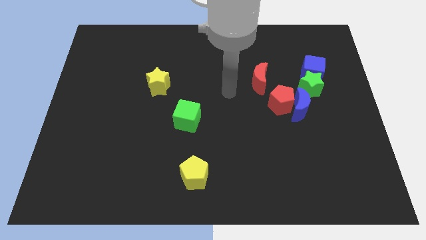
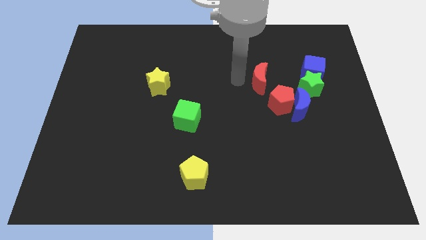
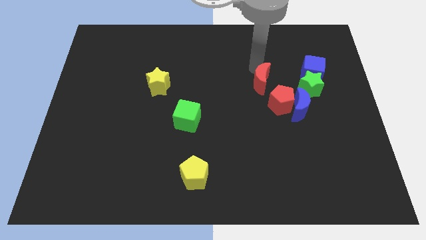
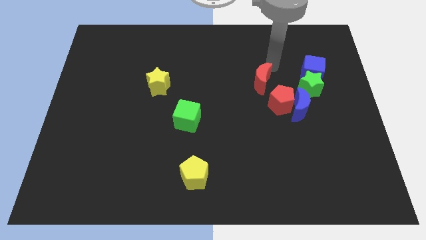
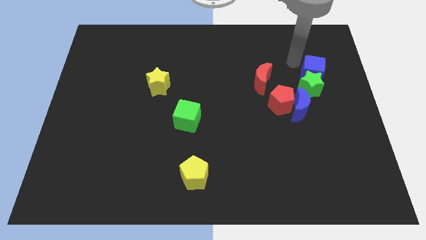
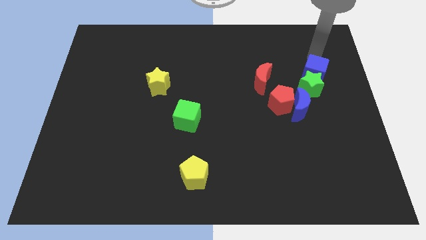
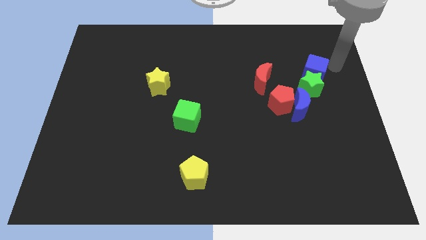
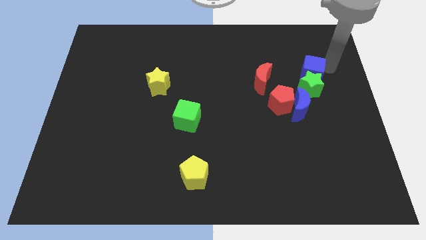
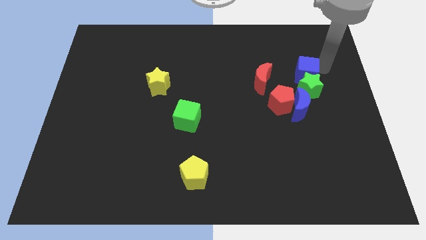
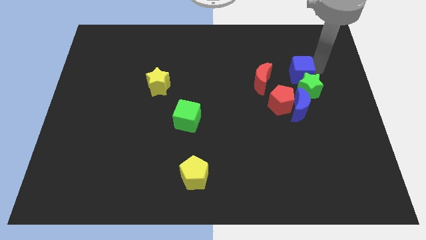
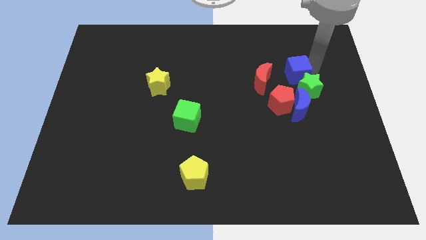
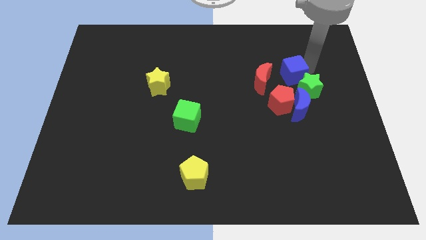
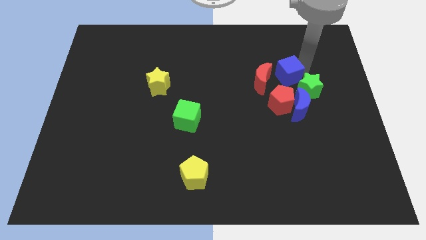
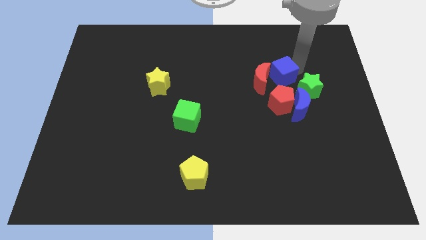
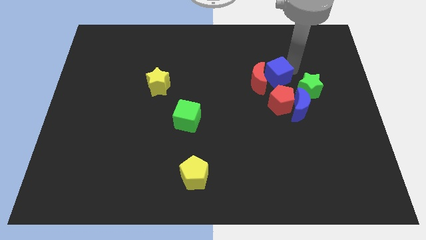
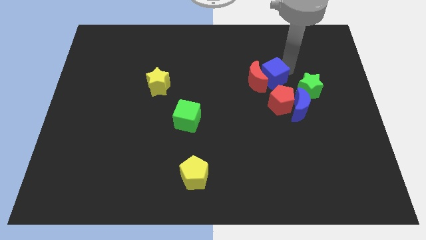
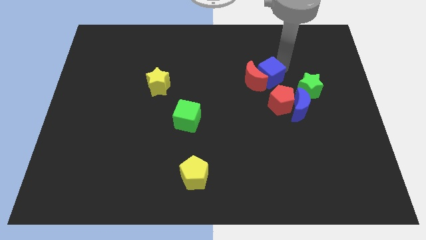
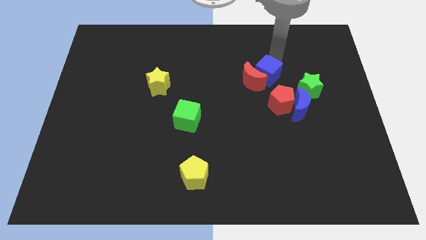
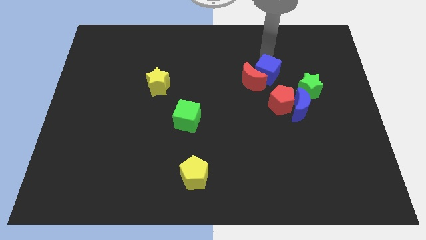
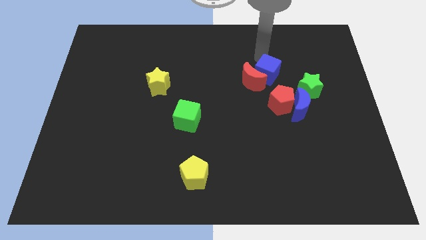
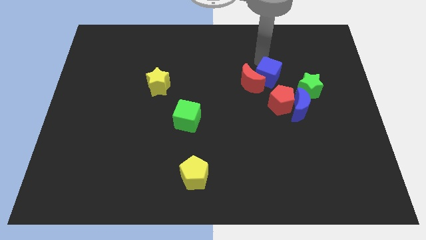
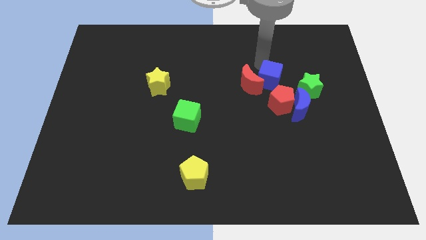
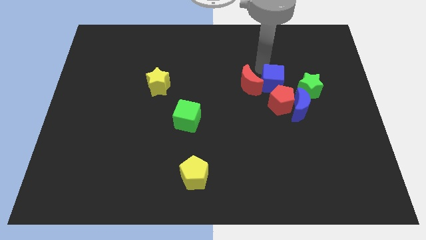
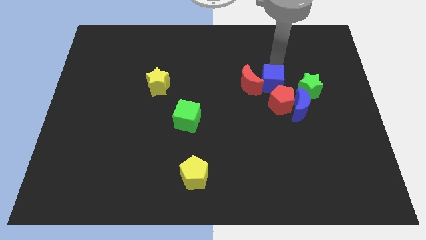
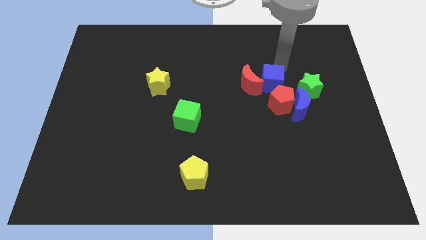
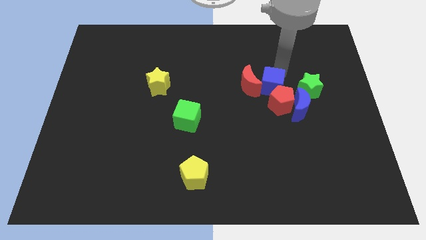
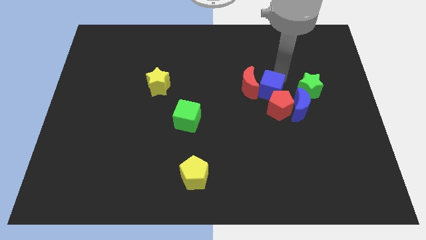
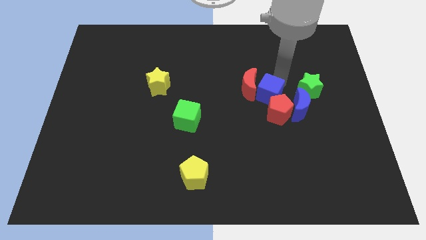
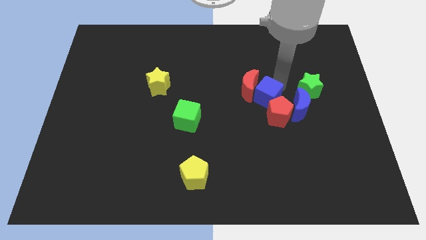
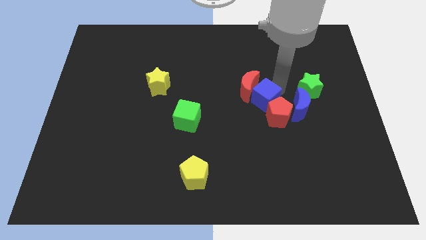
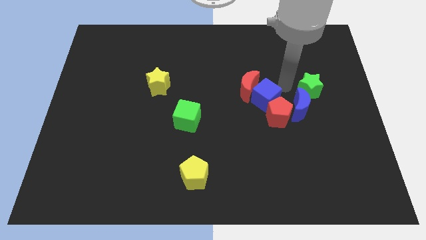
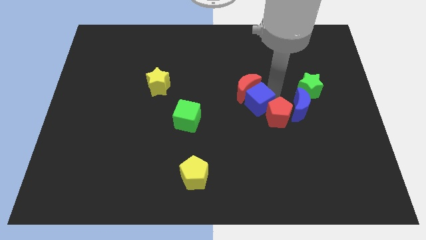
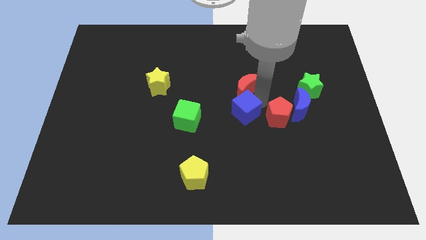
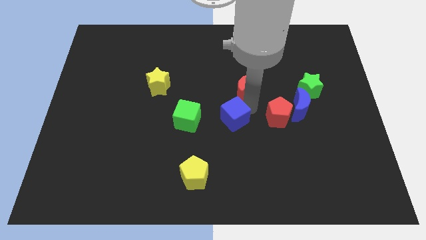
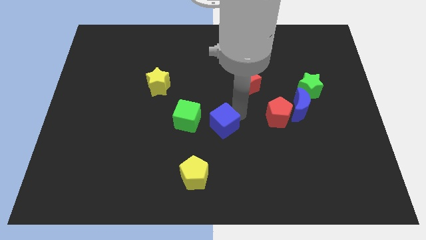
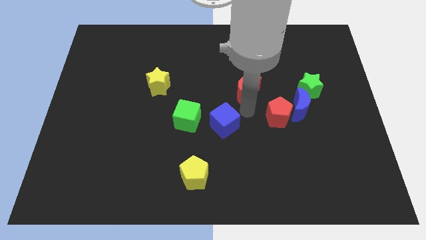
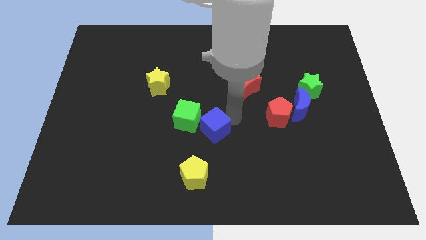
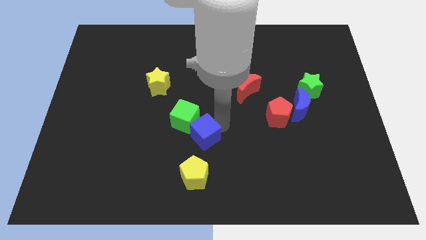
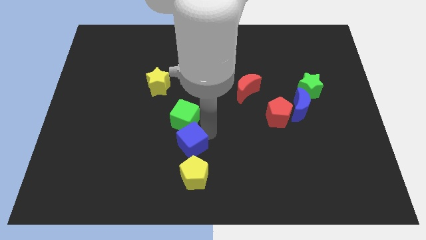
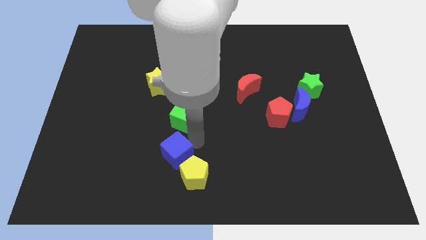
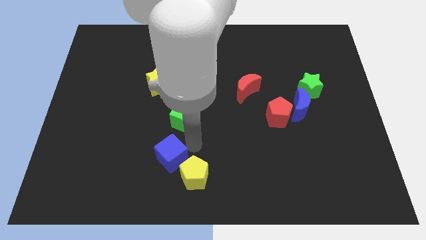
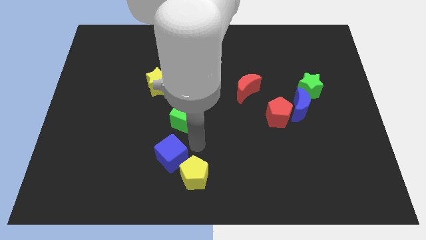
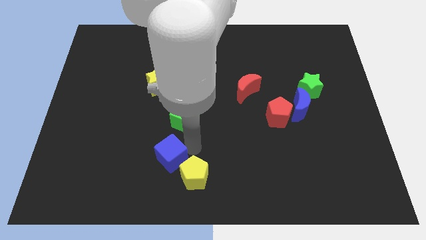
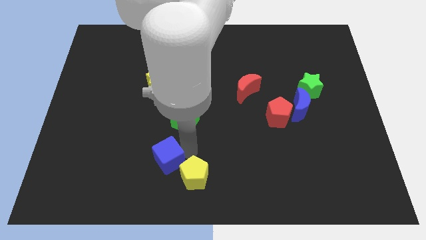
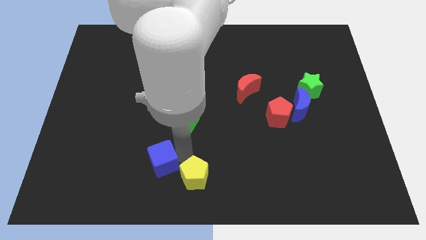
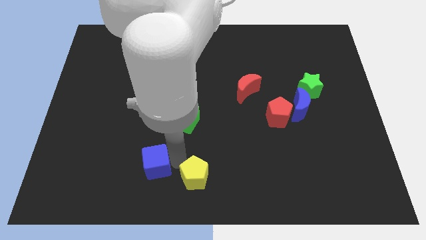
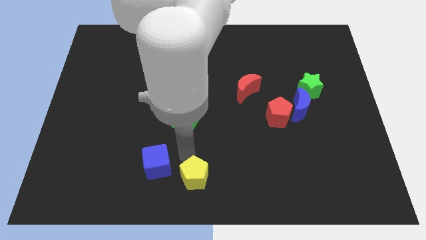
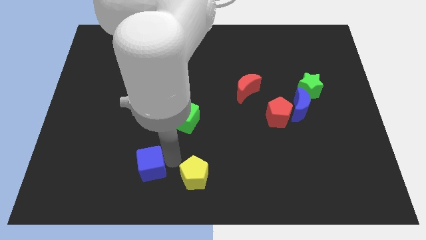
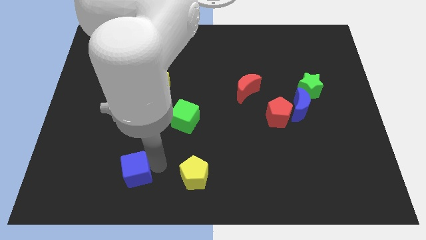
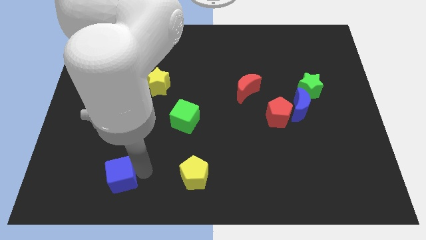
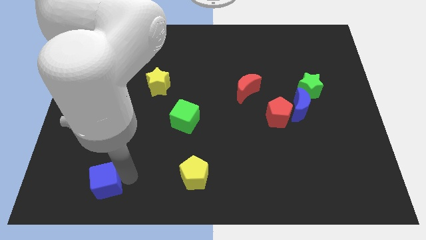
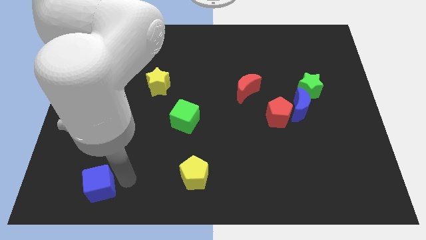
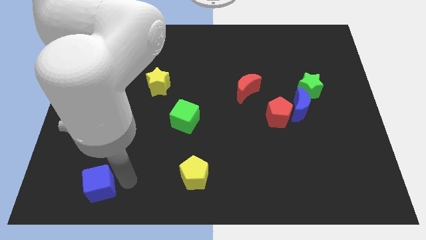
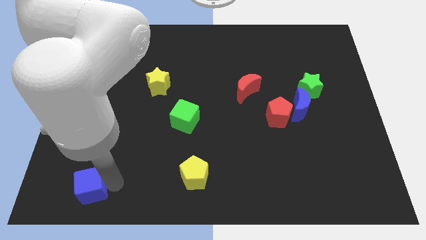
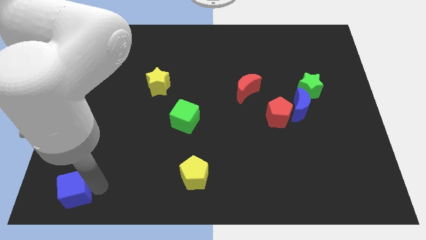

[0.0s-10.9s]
move the blue cube to the lower left corner

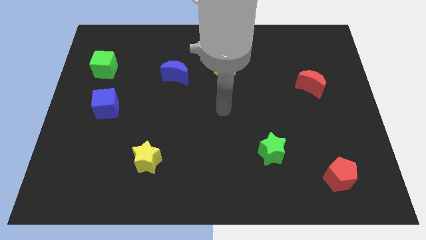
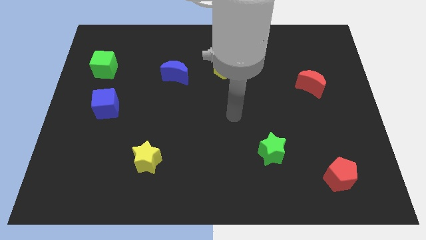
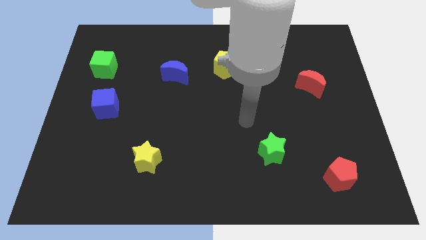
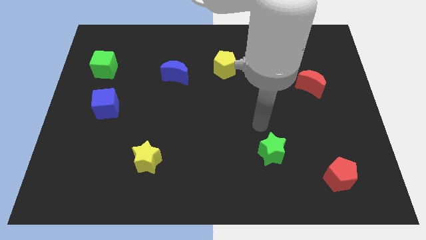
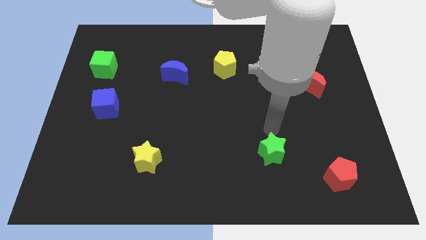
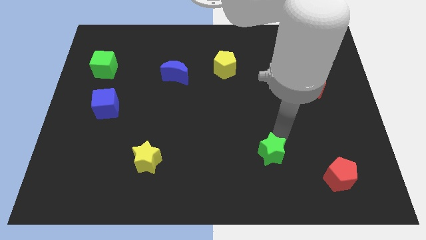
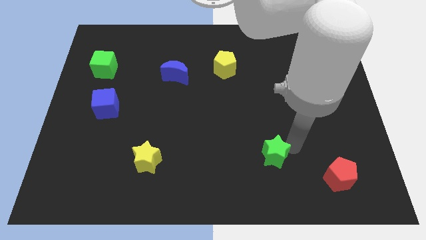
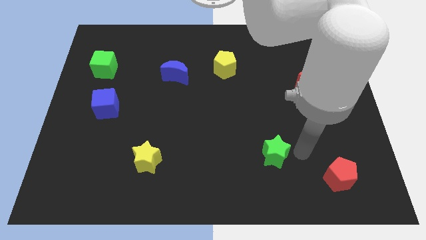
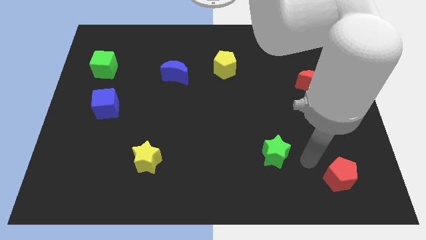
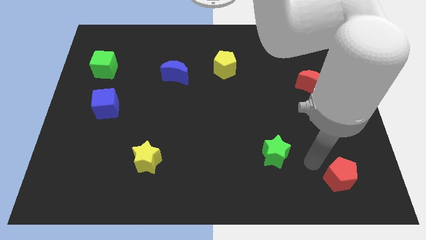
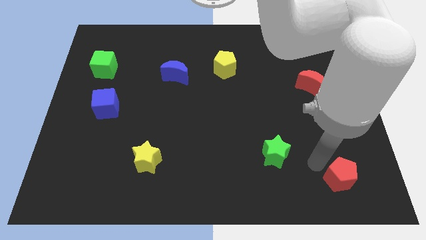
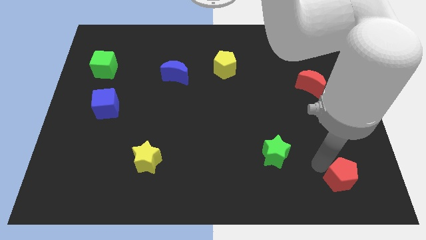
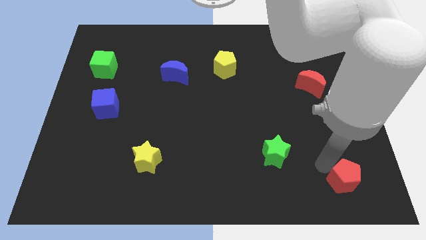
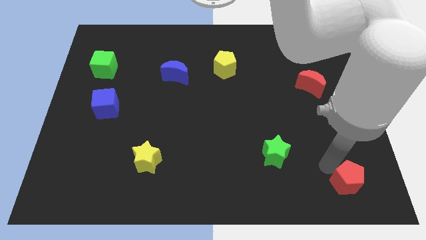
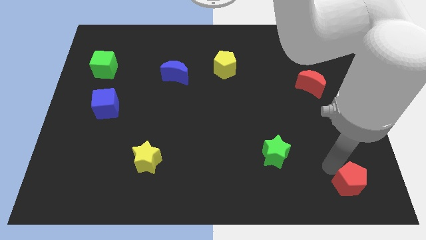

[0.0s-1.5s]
slide the red pentagon to the lower right corner

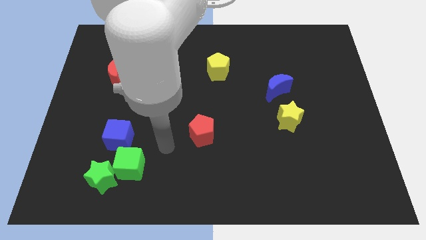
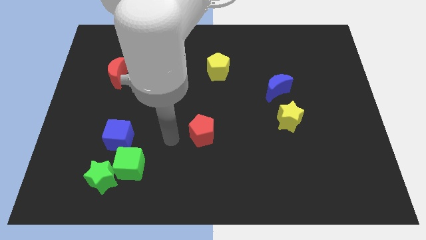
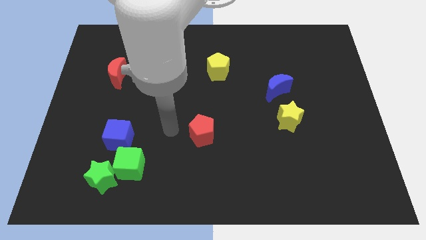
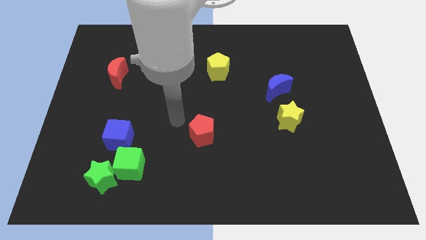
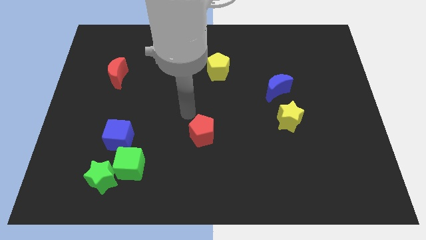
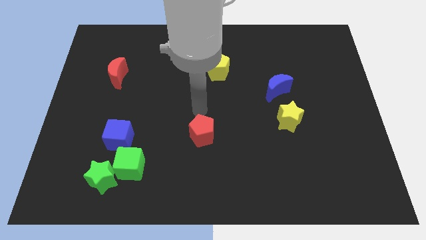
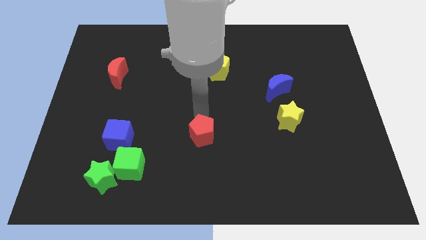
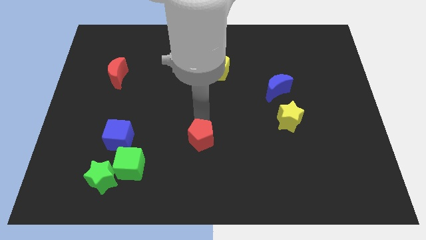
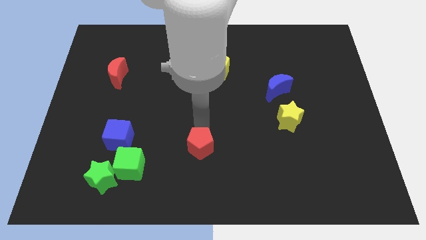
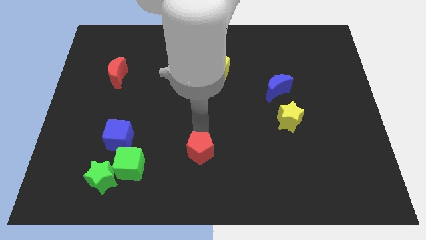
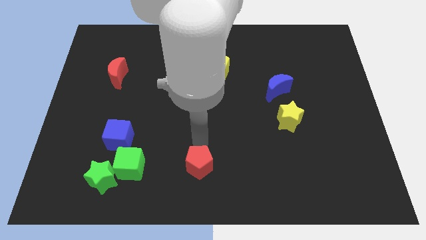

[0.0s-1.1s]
put the red pentagon to the bottom side
